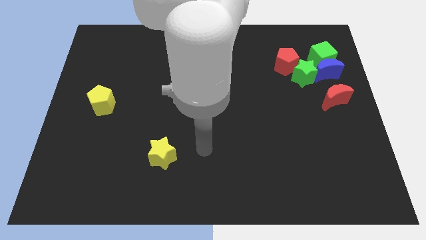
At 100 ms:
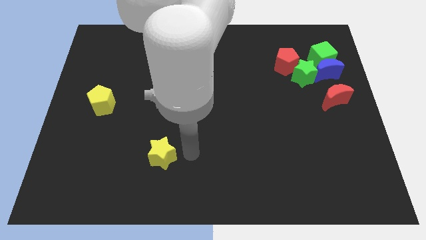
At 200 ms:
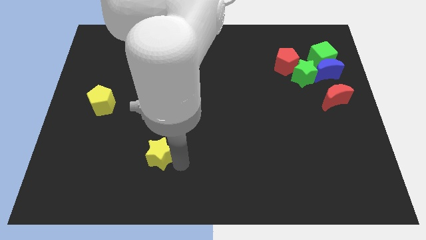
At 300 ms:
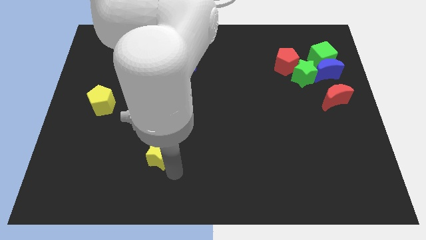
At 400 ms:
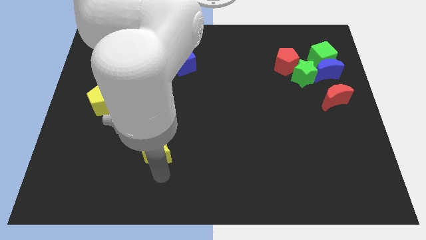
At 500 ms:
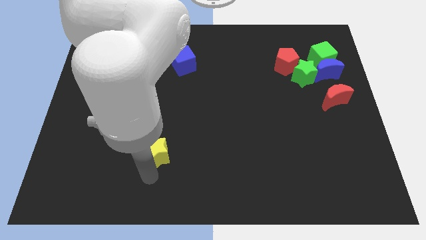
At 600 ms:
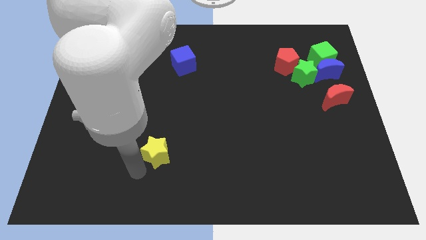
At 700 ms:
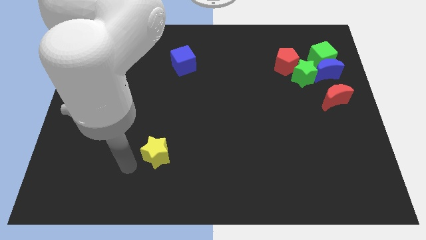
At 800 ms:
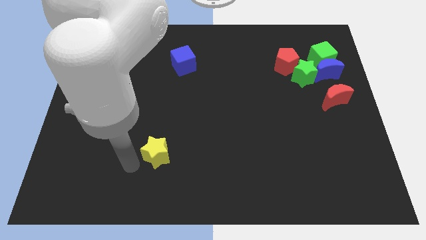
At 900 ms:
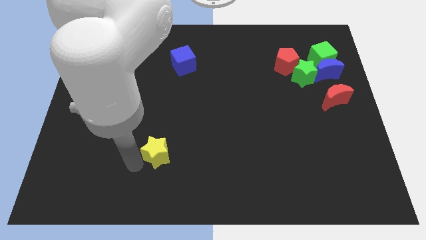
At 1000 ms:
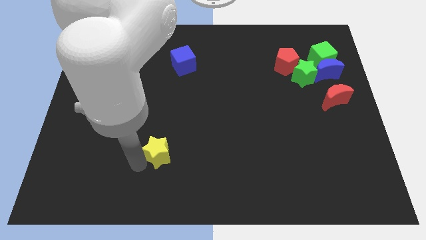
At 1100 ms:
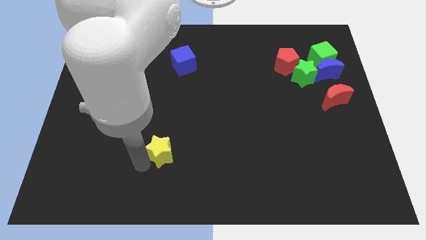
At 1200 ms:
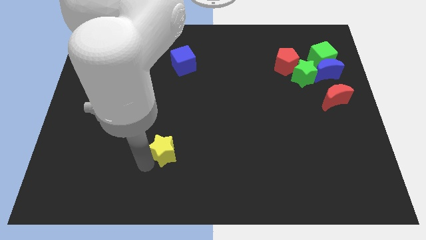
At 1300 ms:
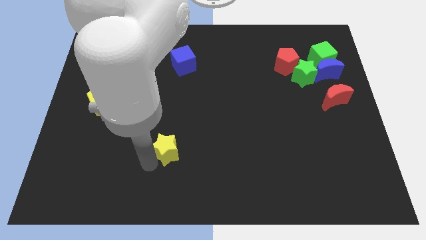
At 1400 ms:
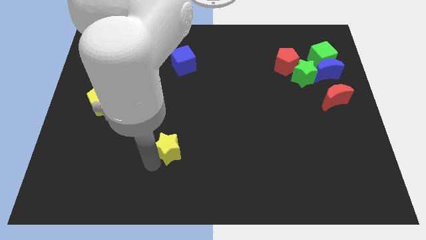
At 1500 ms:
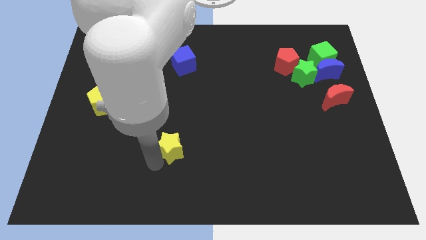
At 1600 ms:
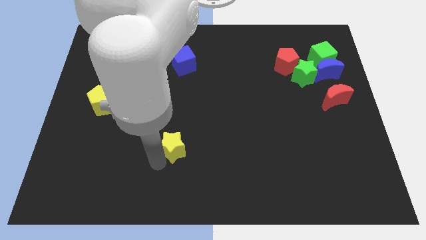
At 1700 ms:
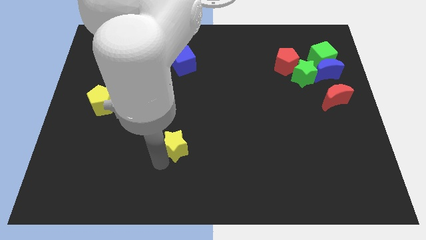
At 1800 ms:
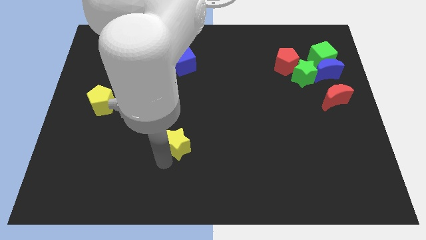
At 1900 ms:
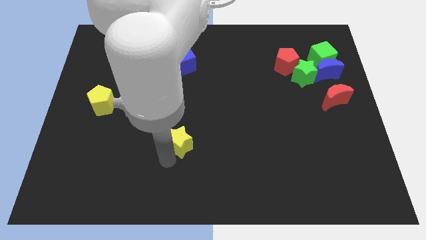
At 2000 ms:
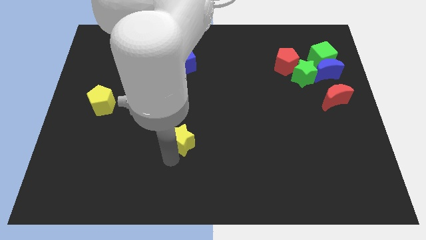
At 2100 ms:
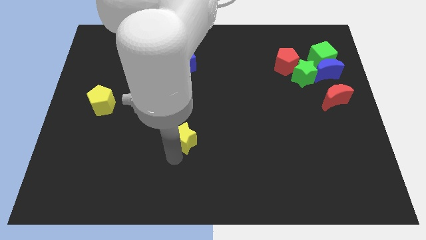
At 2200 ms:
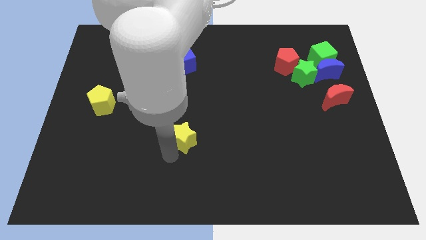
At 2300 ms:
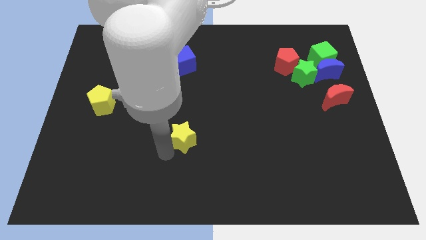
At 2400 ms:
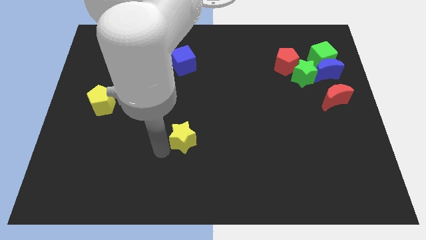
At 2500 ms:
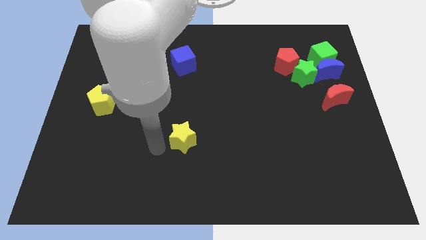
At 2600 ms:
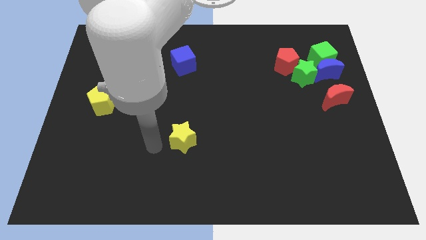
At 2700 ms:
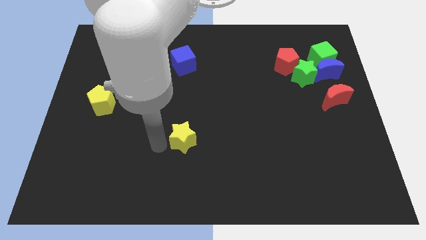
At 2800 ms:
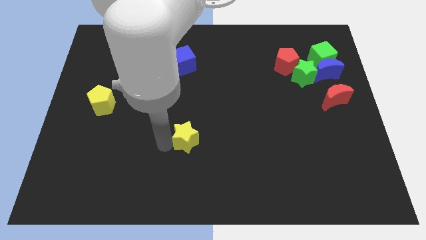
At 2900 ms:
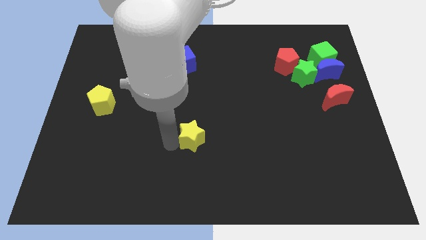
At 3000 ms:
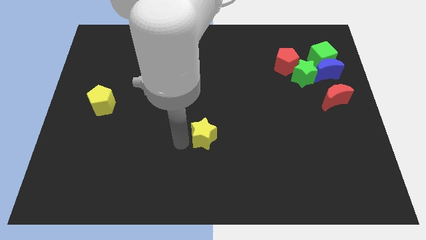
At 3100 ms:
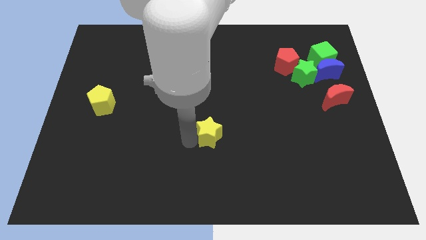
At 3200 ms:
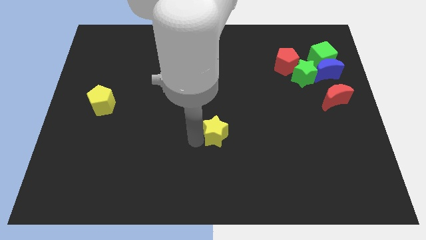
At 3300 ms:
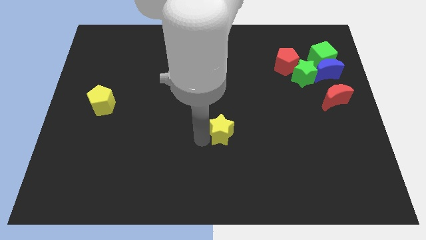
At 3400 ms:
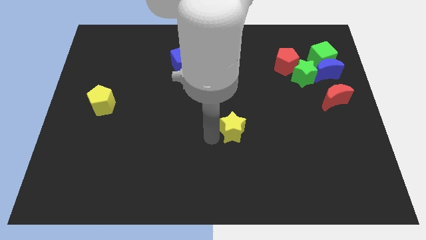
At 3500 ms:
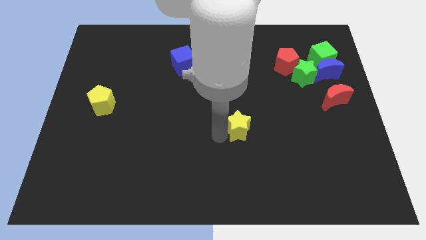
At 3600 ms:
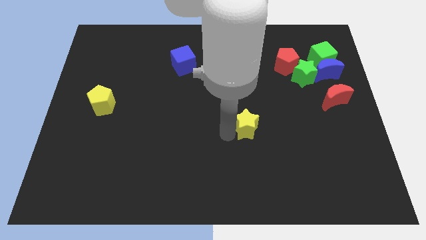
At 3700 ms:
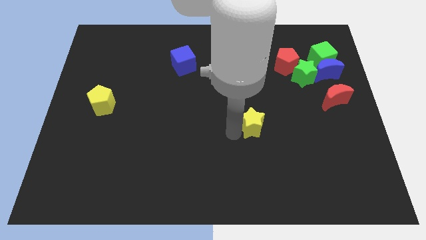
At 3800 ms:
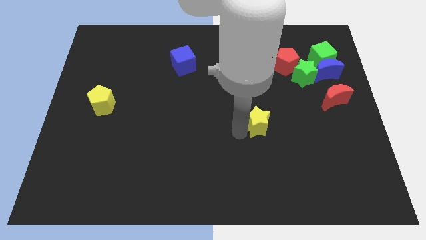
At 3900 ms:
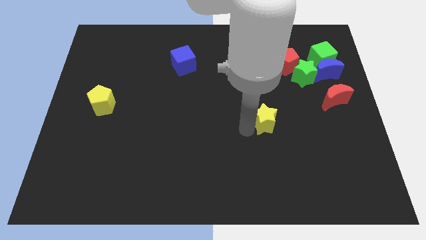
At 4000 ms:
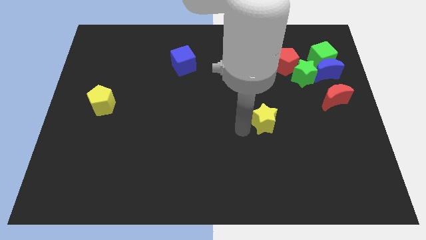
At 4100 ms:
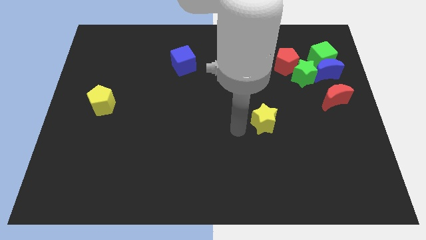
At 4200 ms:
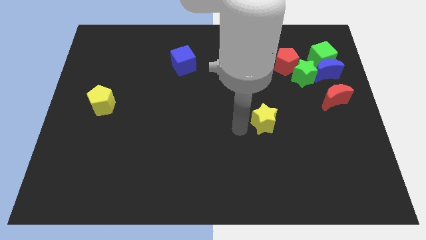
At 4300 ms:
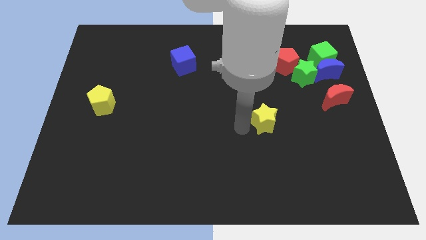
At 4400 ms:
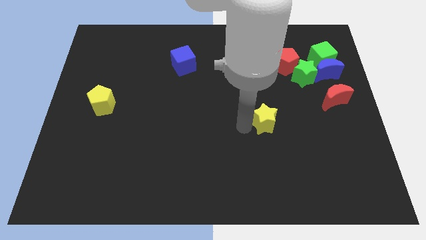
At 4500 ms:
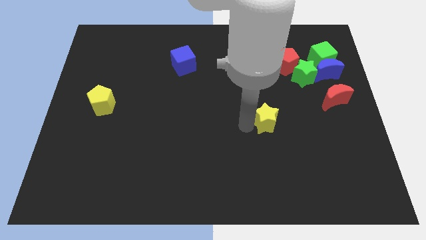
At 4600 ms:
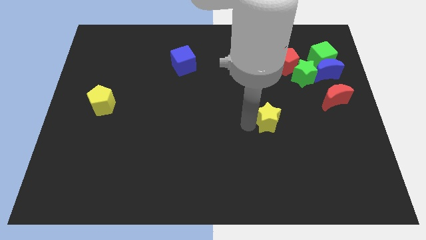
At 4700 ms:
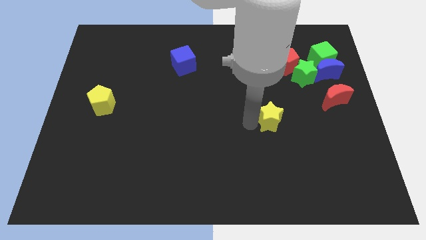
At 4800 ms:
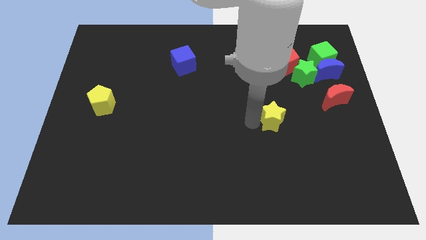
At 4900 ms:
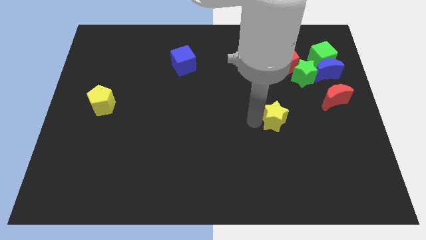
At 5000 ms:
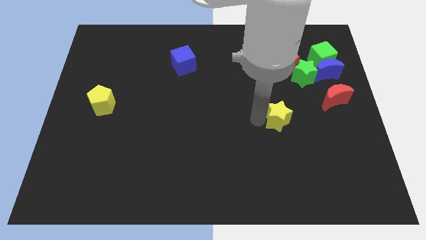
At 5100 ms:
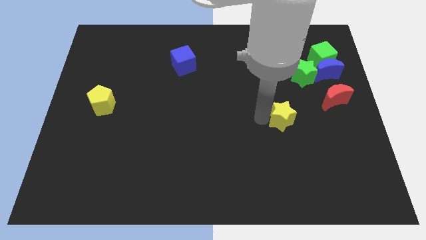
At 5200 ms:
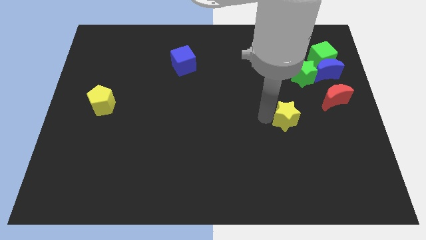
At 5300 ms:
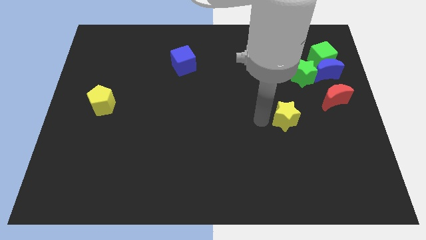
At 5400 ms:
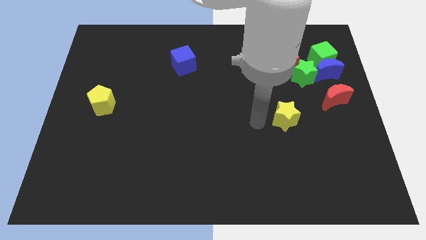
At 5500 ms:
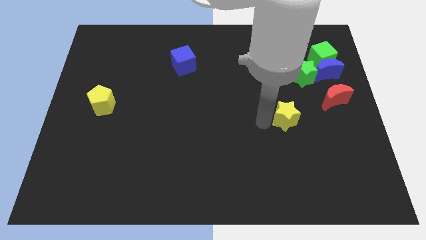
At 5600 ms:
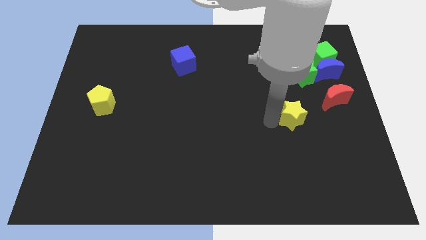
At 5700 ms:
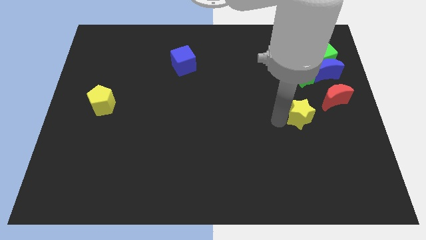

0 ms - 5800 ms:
move the yellow star diagonally down and to the left of the red moon
